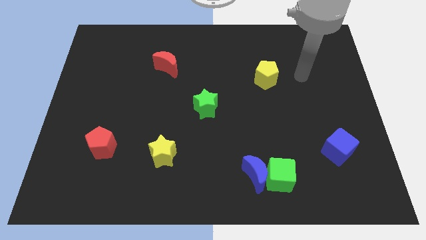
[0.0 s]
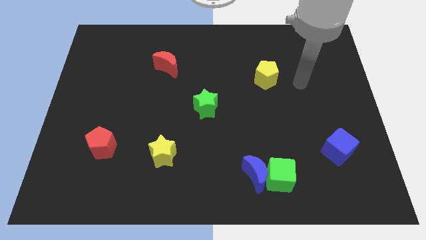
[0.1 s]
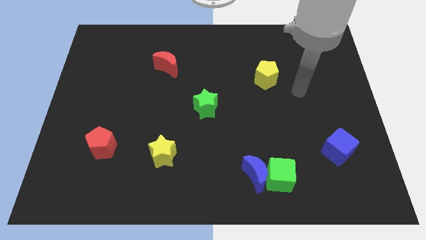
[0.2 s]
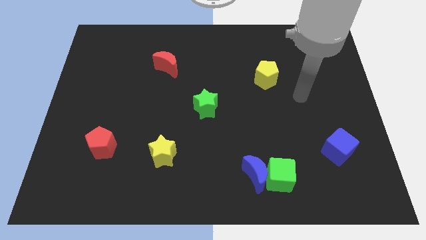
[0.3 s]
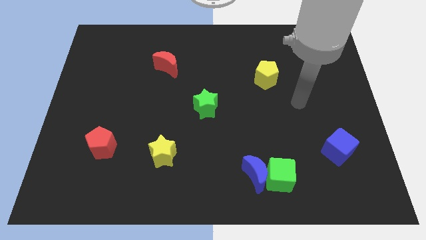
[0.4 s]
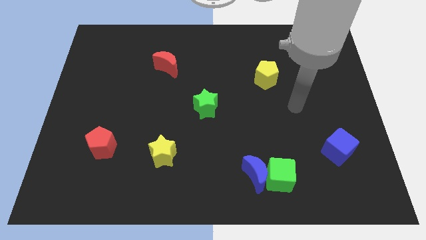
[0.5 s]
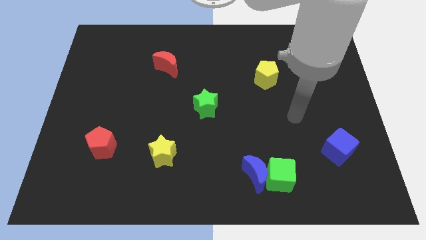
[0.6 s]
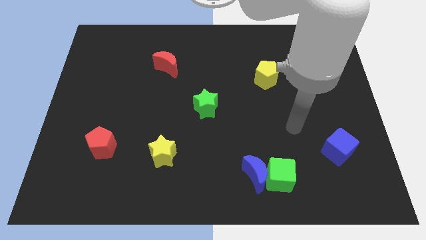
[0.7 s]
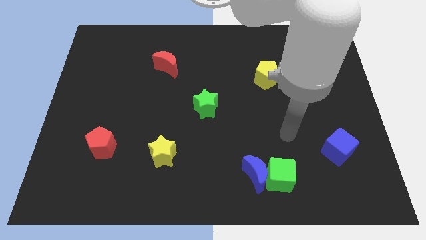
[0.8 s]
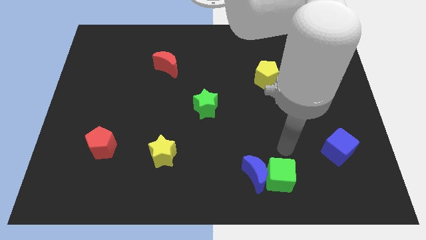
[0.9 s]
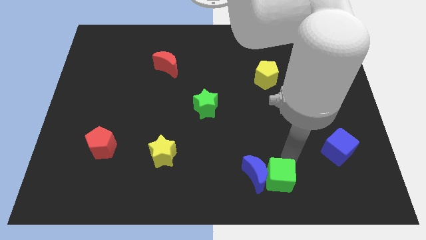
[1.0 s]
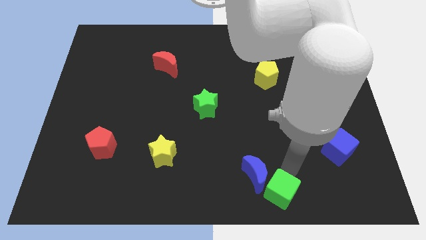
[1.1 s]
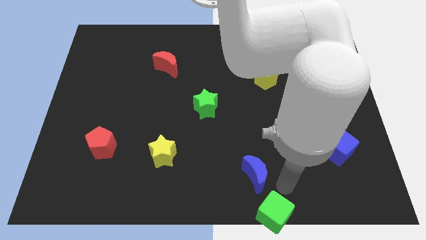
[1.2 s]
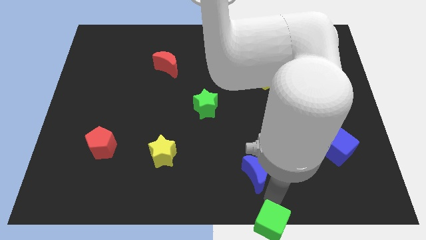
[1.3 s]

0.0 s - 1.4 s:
pull the blue moon apart from the green cube

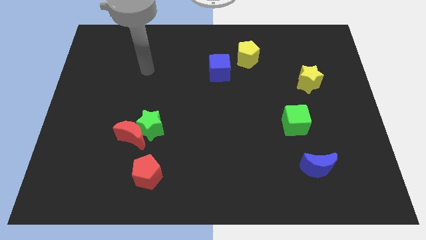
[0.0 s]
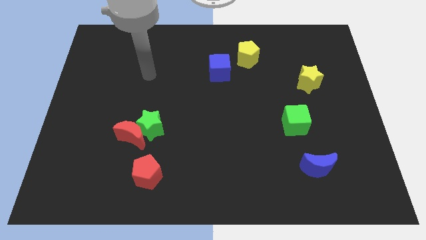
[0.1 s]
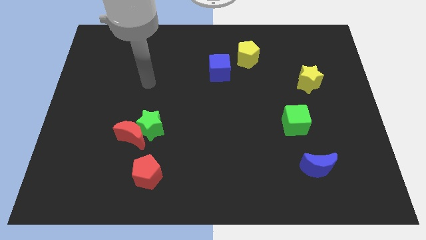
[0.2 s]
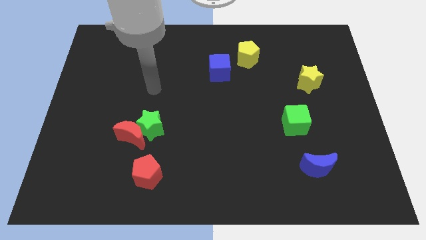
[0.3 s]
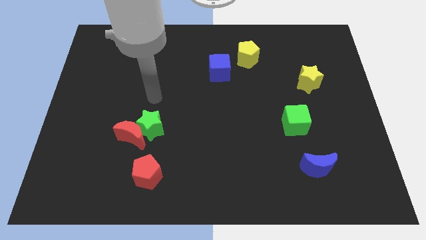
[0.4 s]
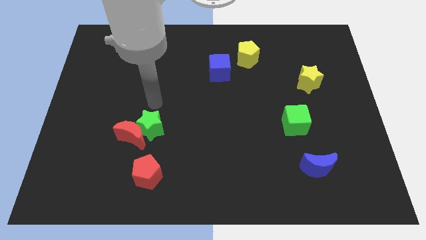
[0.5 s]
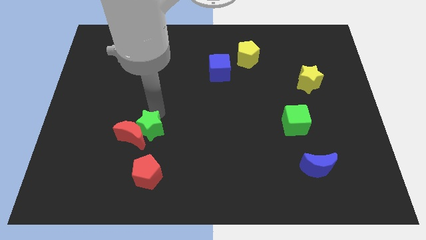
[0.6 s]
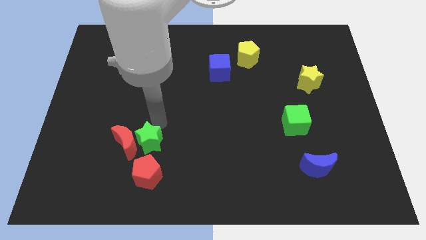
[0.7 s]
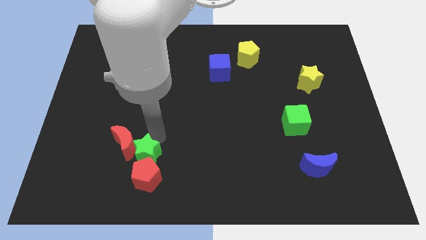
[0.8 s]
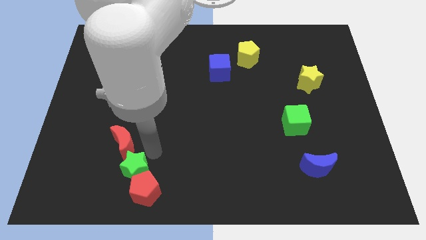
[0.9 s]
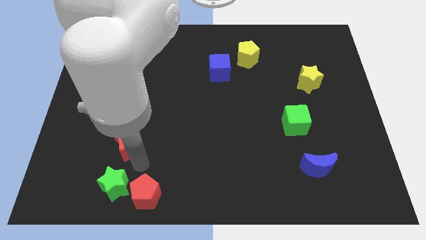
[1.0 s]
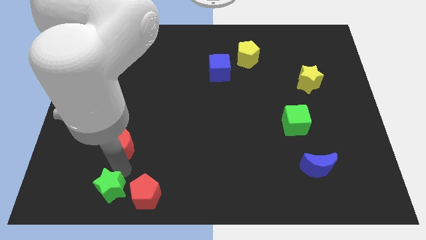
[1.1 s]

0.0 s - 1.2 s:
separate the red moon from the green star

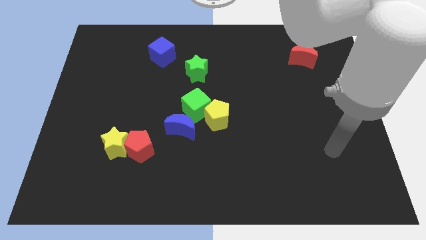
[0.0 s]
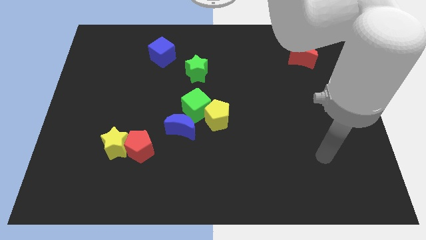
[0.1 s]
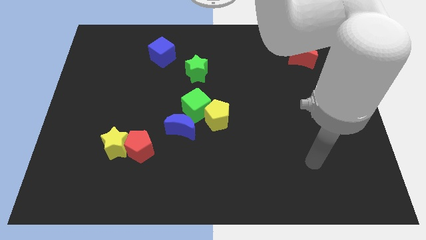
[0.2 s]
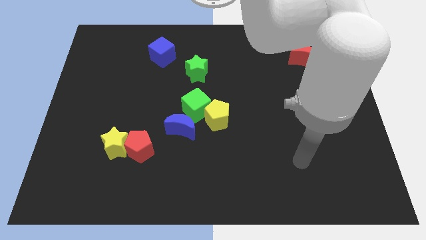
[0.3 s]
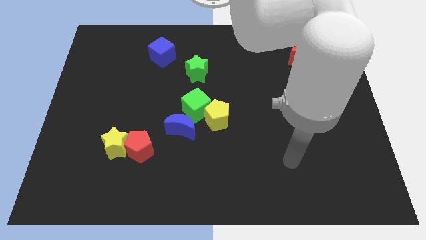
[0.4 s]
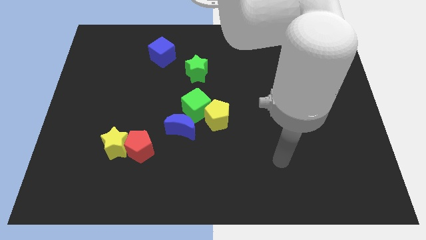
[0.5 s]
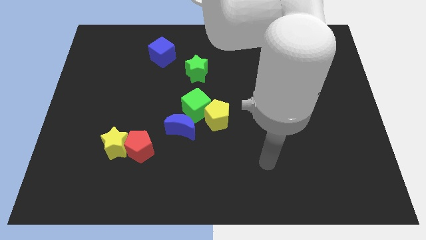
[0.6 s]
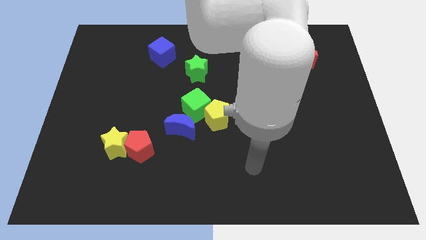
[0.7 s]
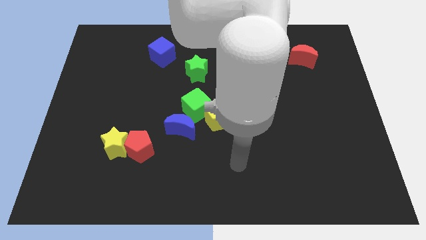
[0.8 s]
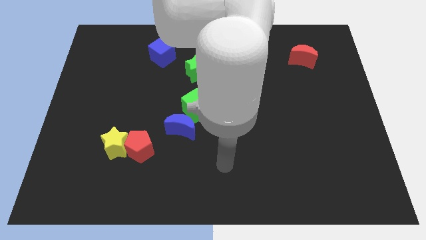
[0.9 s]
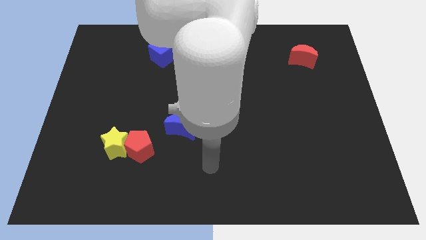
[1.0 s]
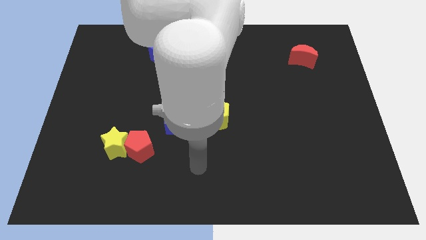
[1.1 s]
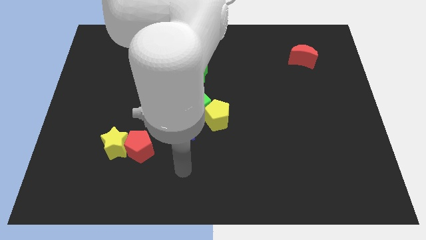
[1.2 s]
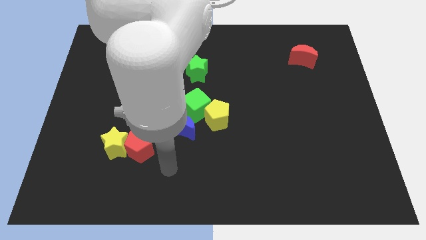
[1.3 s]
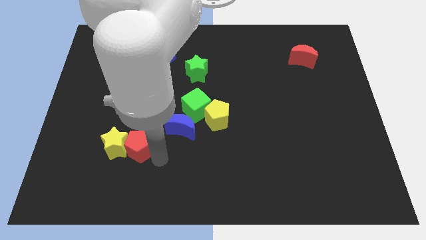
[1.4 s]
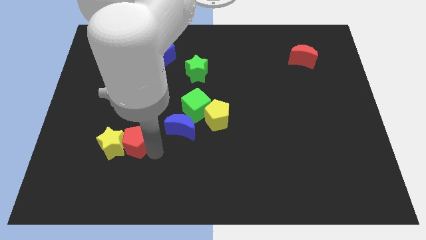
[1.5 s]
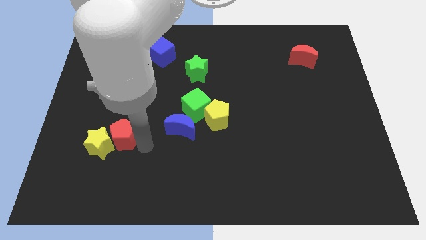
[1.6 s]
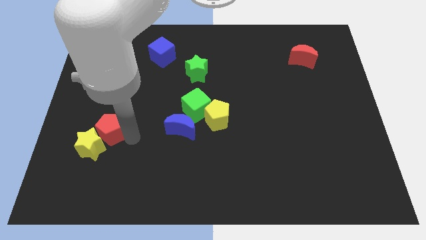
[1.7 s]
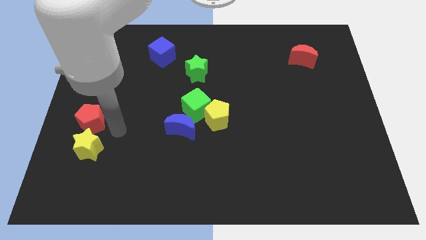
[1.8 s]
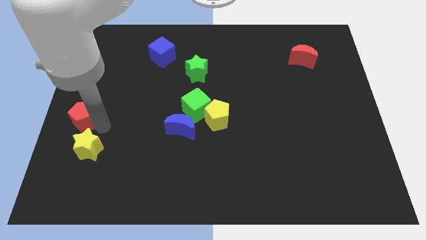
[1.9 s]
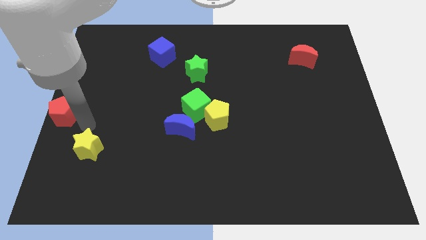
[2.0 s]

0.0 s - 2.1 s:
move the yellow star away from the red pentagon

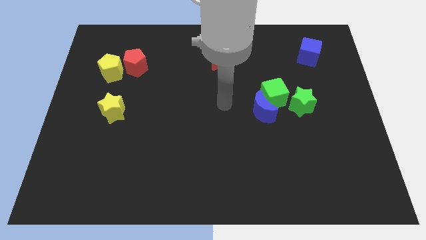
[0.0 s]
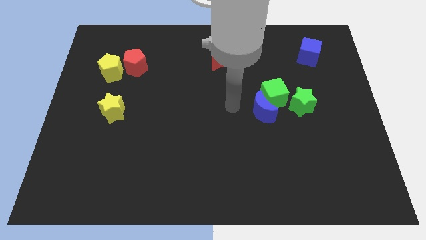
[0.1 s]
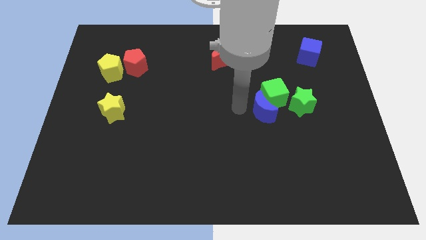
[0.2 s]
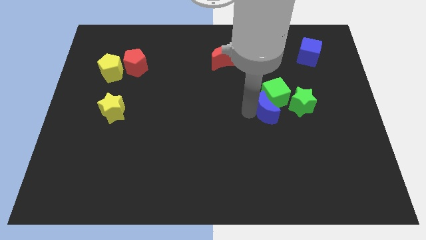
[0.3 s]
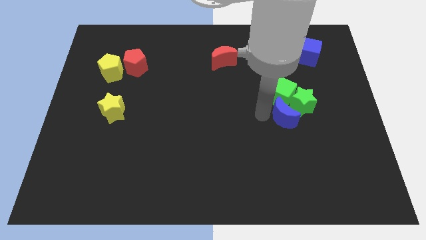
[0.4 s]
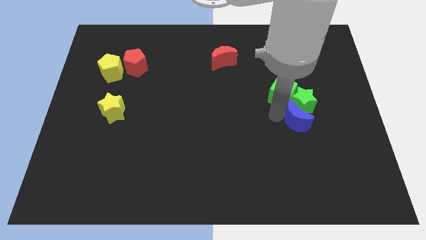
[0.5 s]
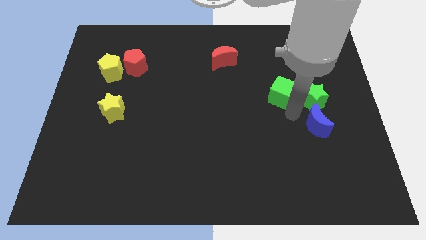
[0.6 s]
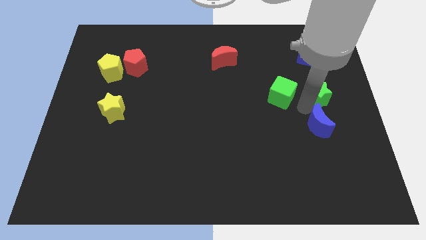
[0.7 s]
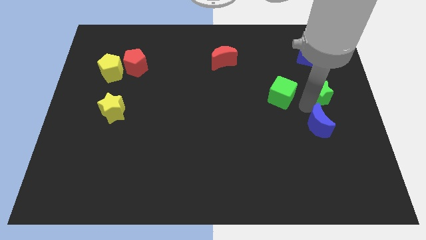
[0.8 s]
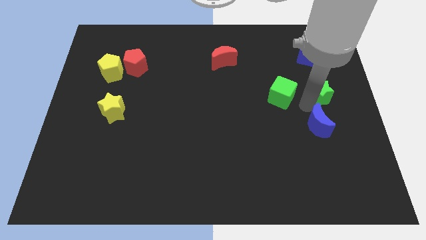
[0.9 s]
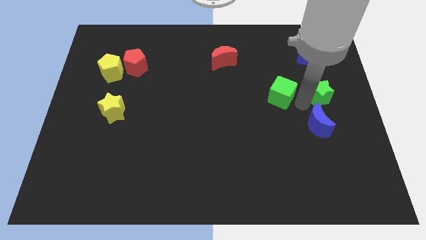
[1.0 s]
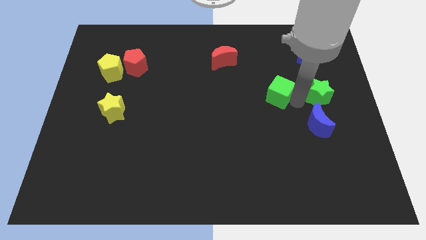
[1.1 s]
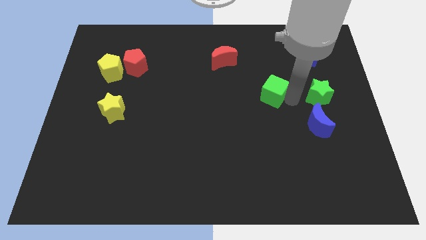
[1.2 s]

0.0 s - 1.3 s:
separate the green cube from the blue moon and green star

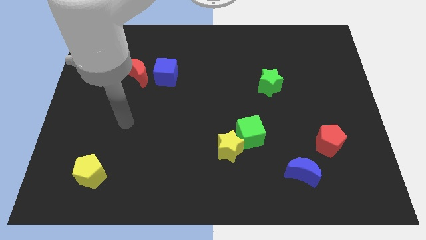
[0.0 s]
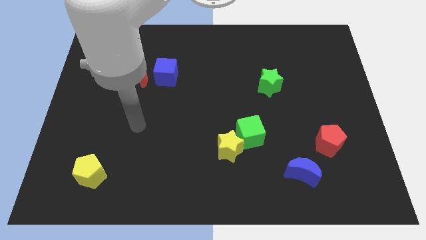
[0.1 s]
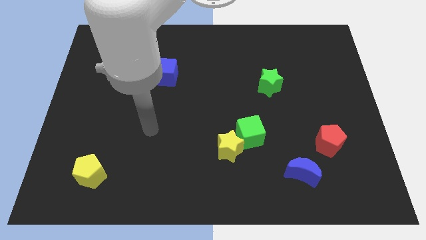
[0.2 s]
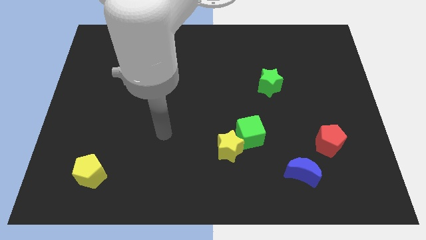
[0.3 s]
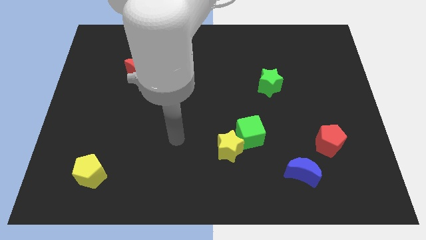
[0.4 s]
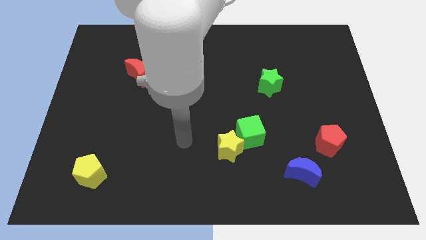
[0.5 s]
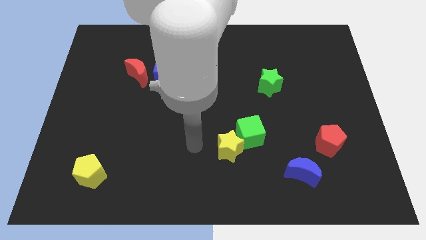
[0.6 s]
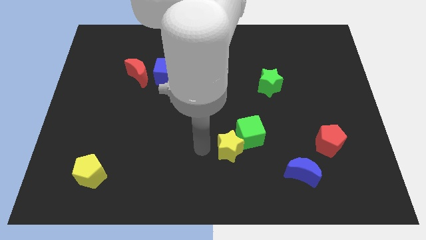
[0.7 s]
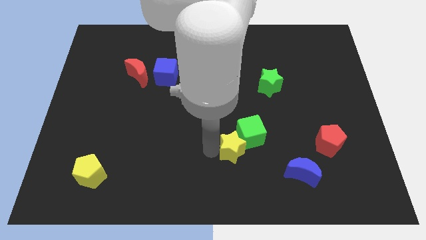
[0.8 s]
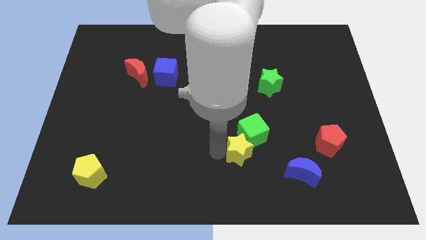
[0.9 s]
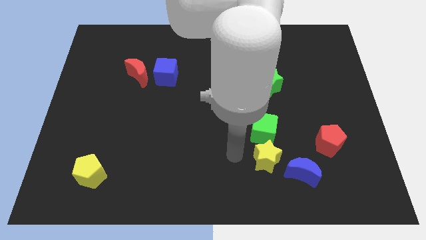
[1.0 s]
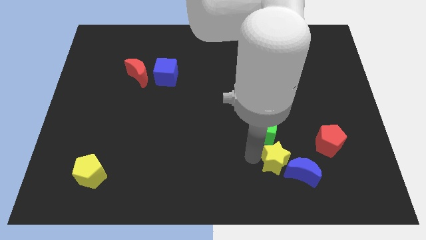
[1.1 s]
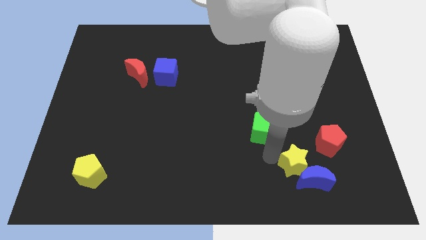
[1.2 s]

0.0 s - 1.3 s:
pull the green cube apart from the yellow star

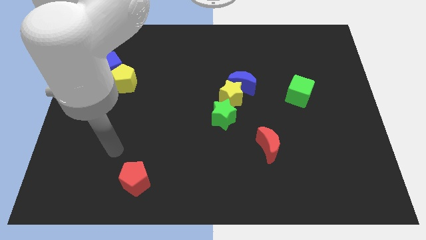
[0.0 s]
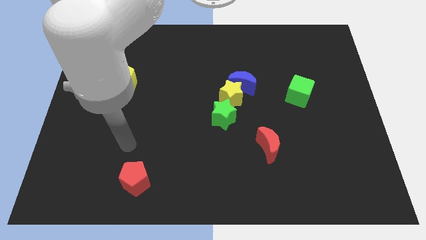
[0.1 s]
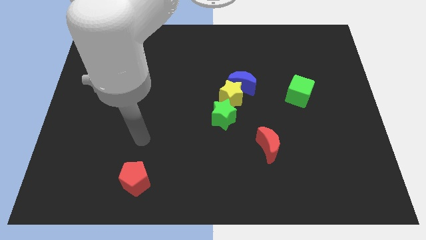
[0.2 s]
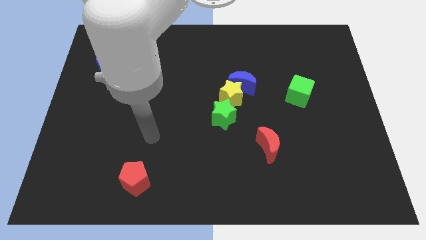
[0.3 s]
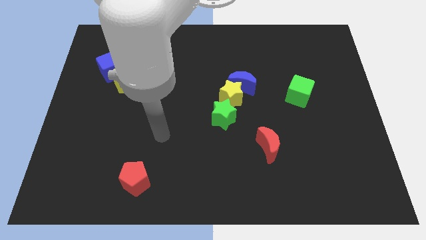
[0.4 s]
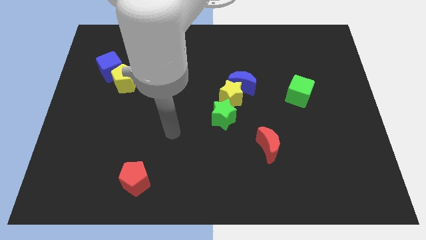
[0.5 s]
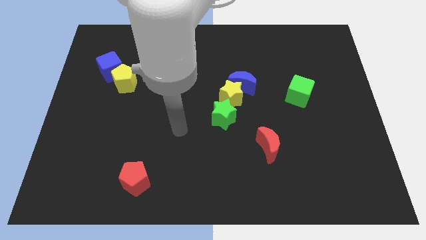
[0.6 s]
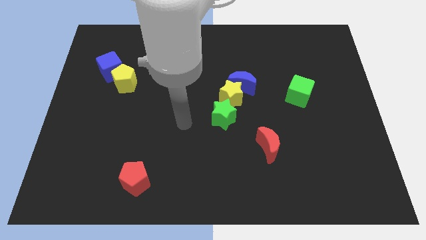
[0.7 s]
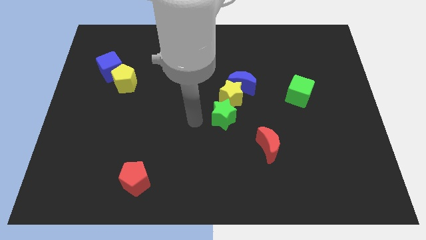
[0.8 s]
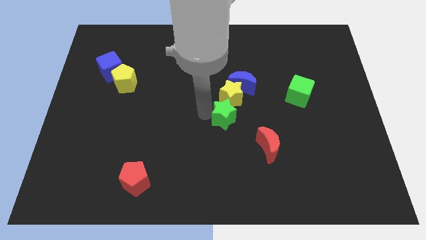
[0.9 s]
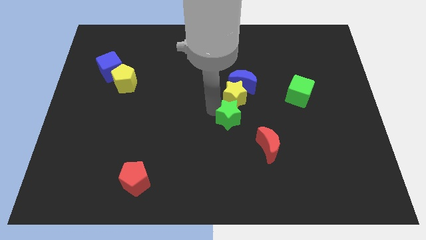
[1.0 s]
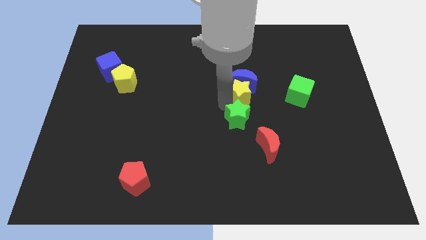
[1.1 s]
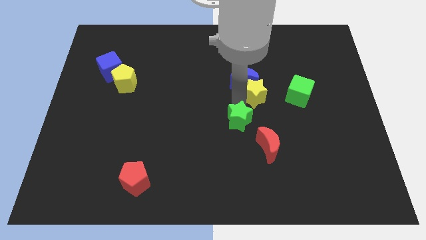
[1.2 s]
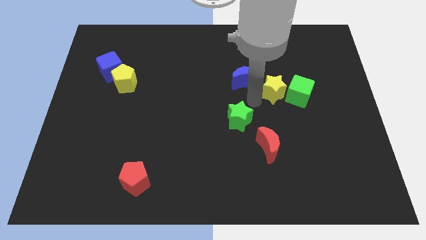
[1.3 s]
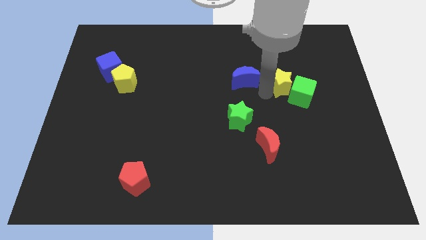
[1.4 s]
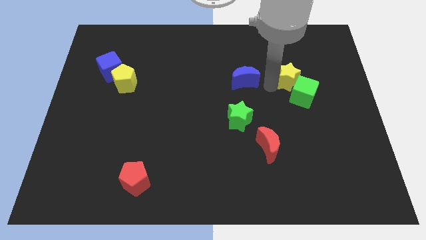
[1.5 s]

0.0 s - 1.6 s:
move the blue moon away from the yellow star

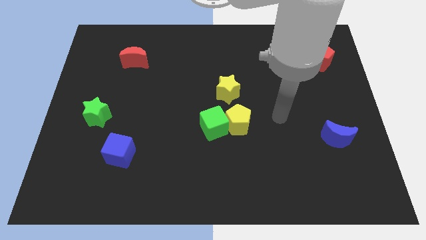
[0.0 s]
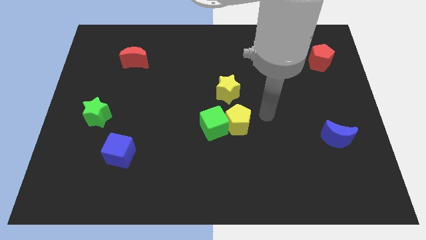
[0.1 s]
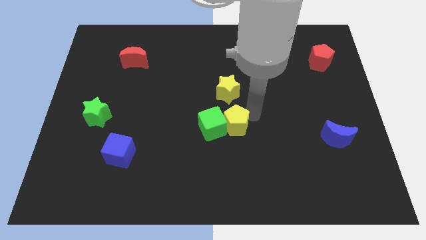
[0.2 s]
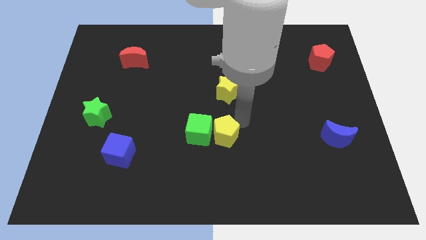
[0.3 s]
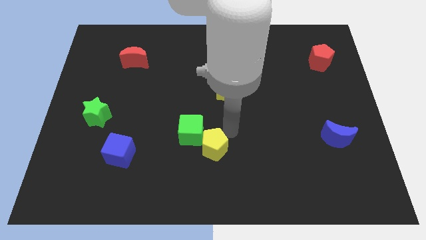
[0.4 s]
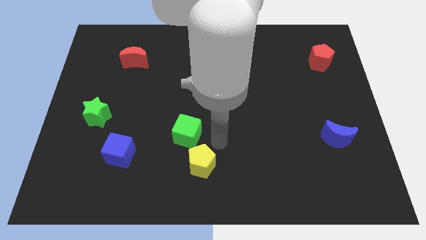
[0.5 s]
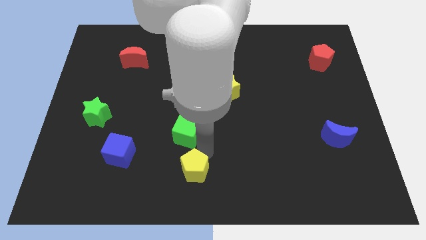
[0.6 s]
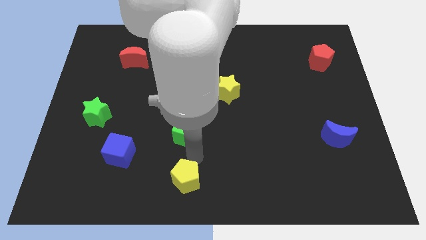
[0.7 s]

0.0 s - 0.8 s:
move the green cube away from the yellow pentagon
